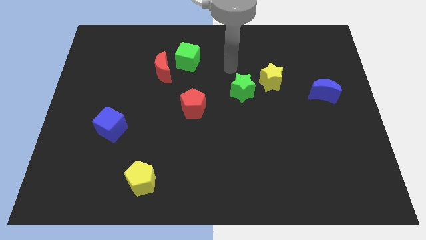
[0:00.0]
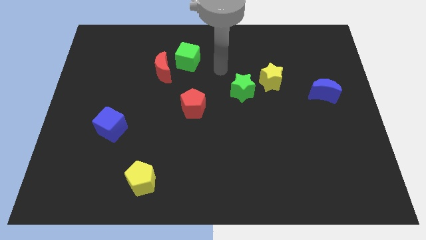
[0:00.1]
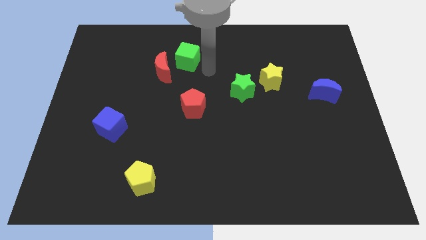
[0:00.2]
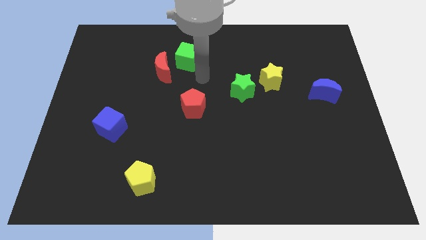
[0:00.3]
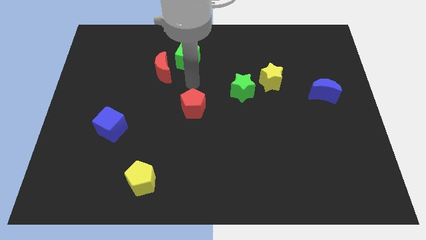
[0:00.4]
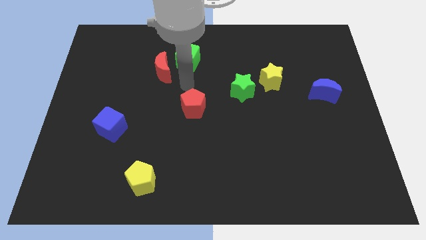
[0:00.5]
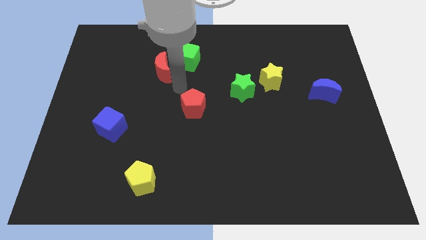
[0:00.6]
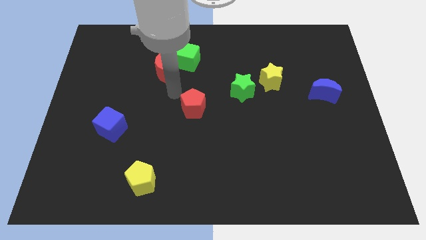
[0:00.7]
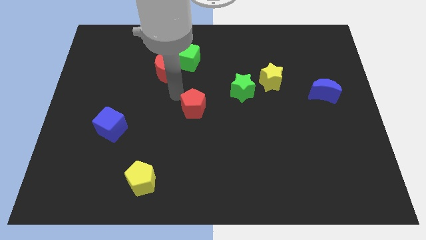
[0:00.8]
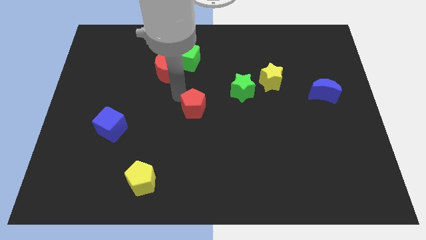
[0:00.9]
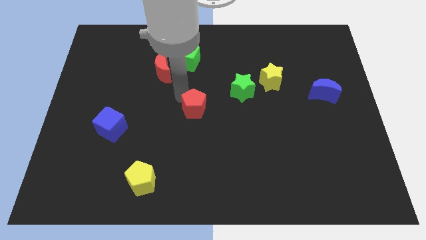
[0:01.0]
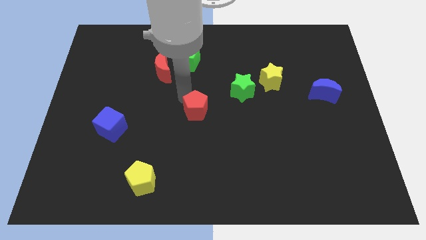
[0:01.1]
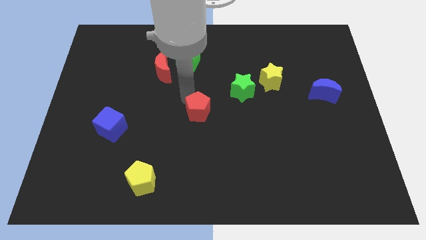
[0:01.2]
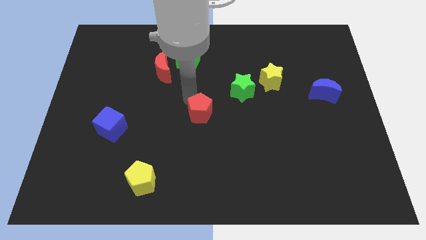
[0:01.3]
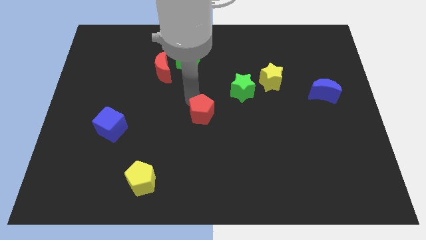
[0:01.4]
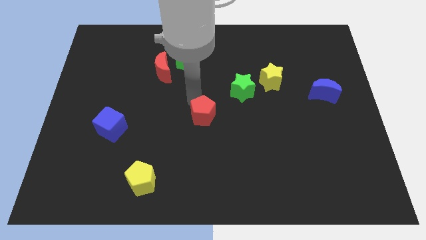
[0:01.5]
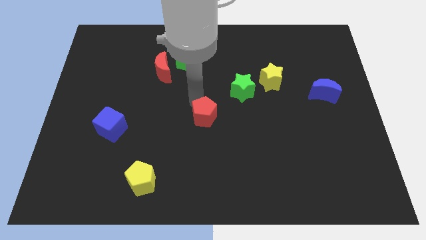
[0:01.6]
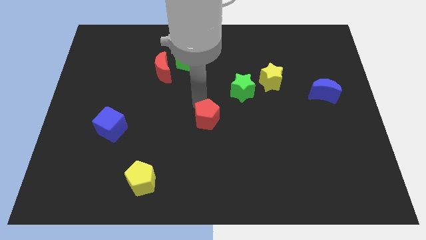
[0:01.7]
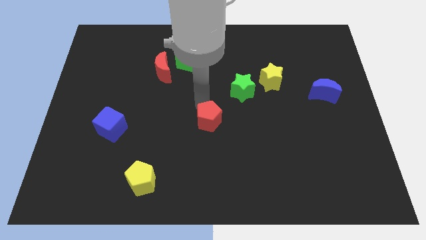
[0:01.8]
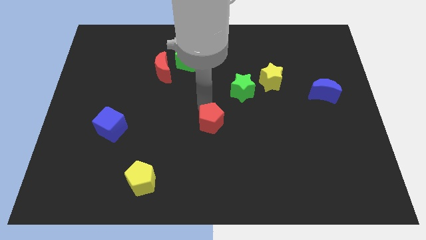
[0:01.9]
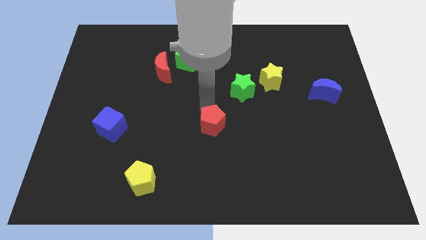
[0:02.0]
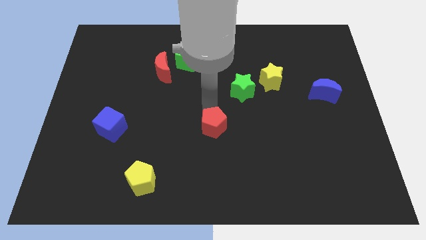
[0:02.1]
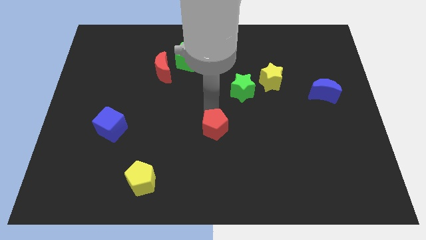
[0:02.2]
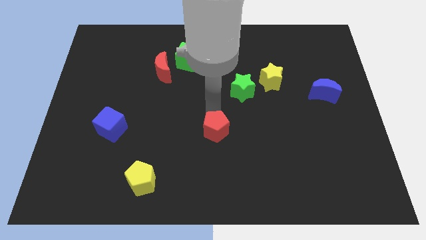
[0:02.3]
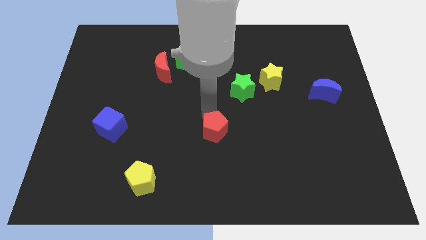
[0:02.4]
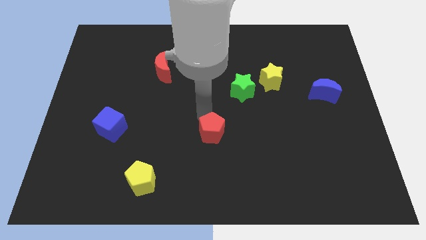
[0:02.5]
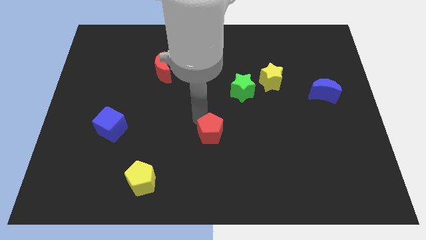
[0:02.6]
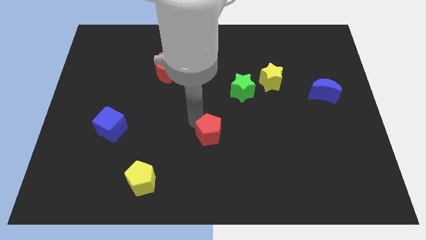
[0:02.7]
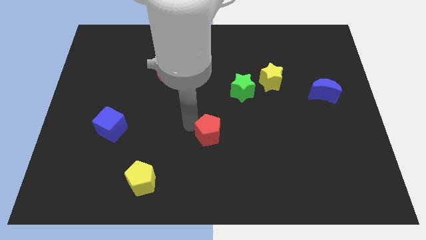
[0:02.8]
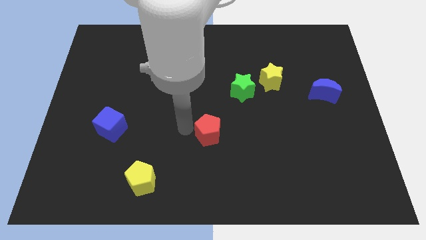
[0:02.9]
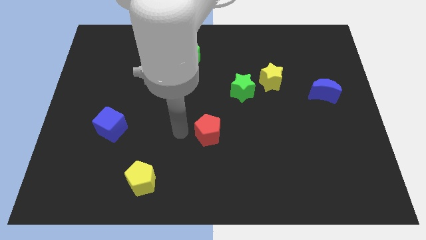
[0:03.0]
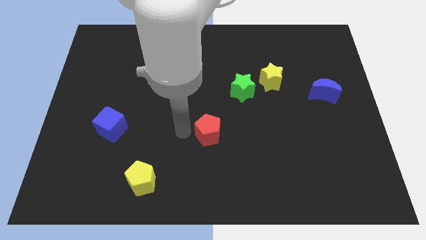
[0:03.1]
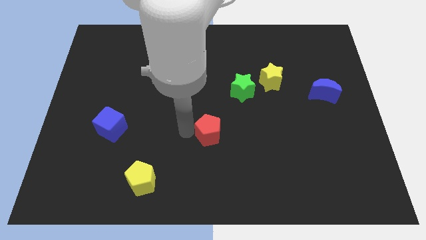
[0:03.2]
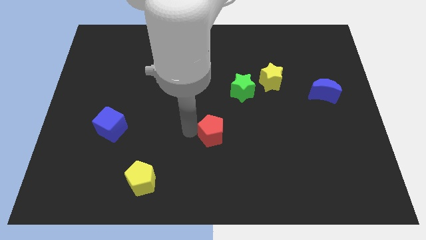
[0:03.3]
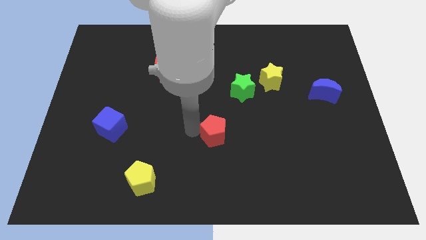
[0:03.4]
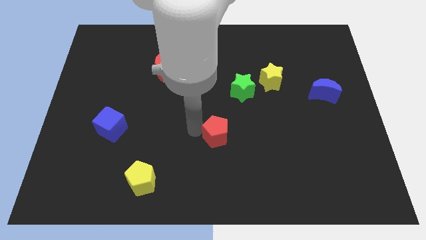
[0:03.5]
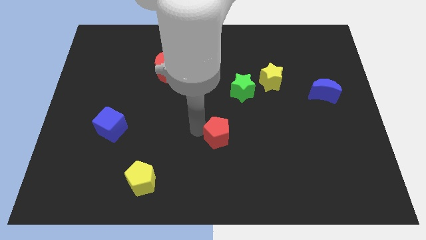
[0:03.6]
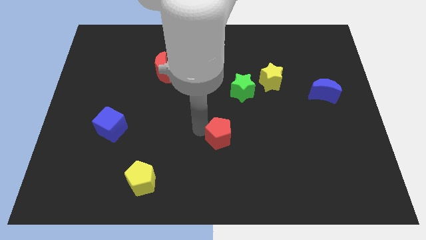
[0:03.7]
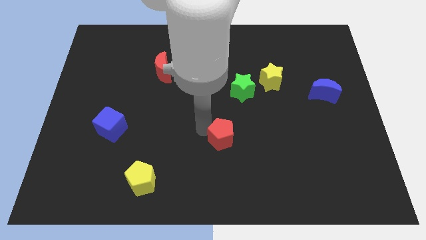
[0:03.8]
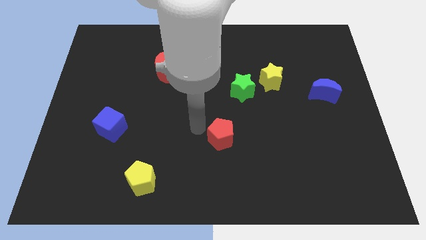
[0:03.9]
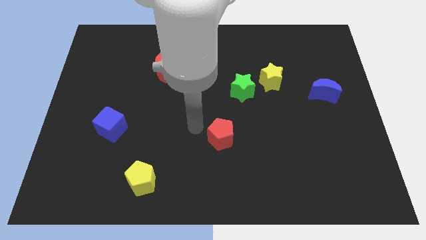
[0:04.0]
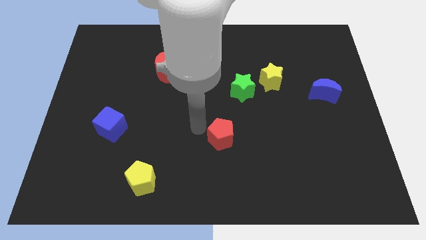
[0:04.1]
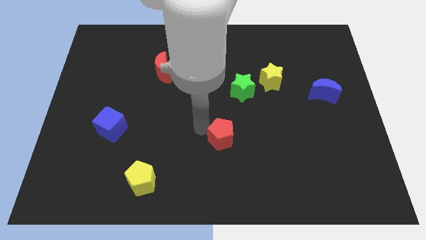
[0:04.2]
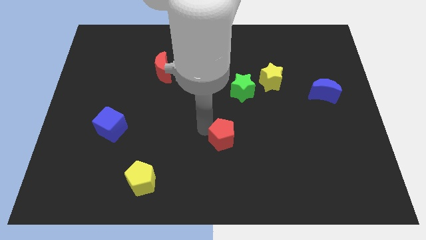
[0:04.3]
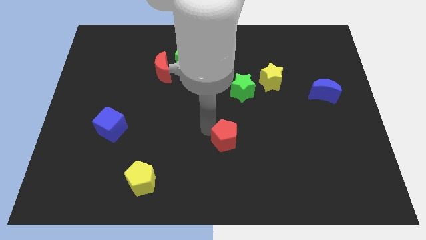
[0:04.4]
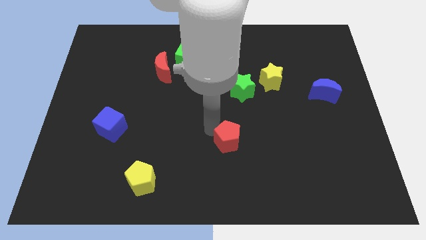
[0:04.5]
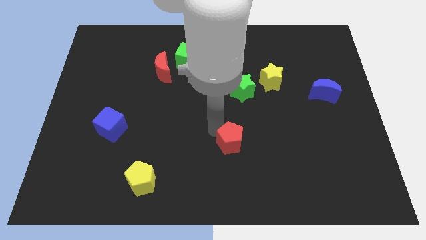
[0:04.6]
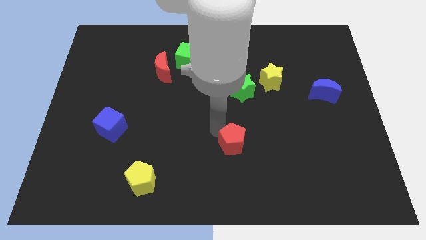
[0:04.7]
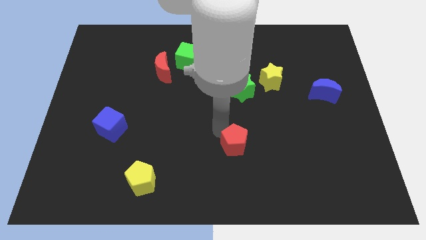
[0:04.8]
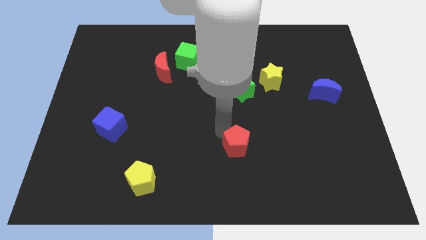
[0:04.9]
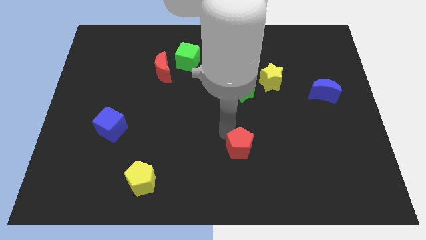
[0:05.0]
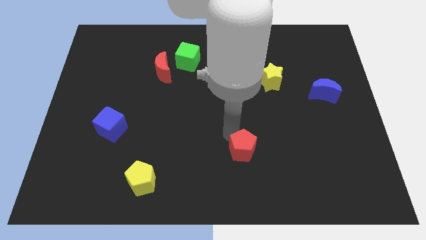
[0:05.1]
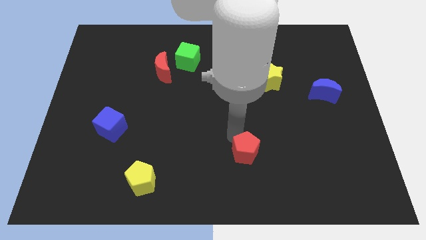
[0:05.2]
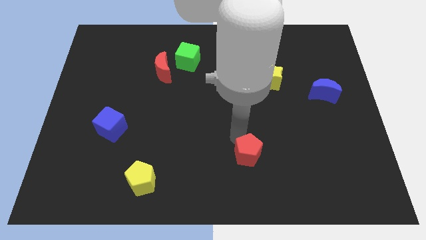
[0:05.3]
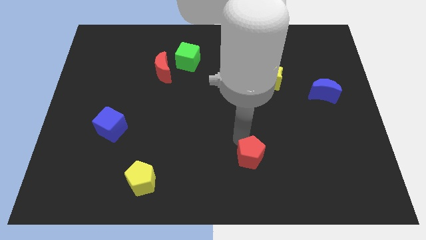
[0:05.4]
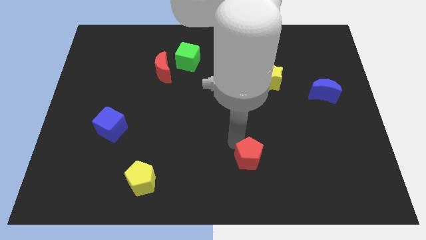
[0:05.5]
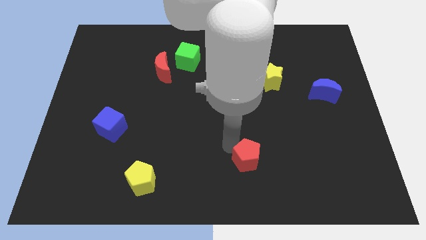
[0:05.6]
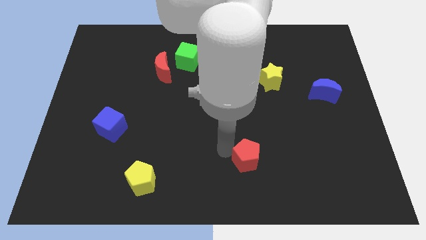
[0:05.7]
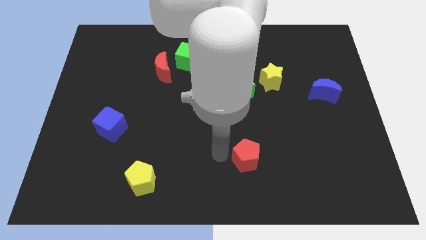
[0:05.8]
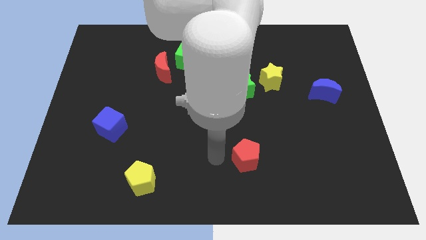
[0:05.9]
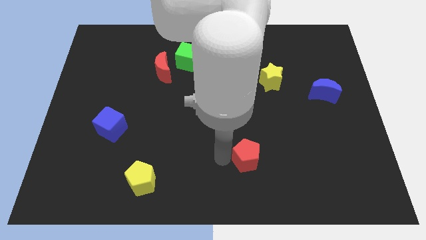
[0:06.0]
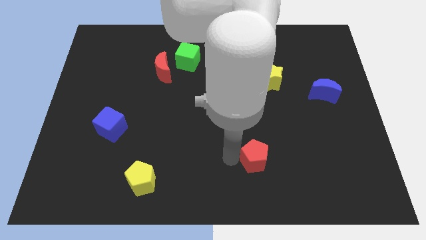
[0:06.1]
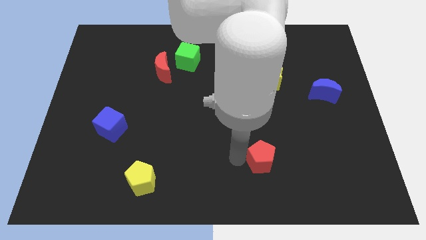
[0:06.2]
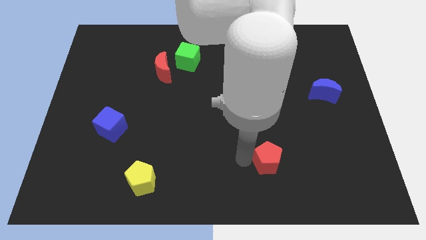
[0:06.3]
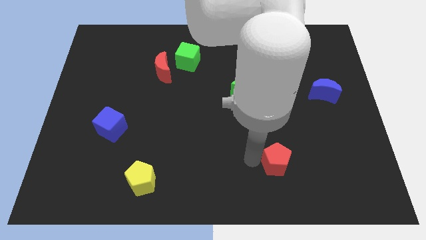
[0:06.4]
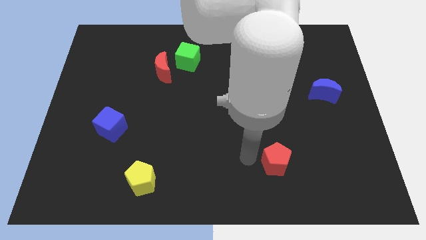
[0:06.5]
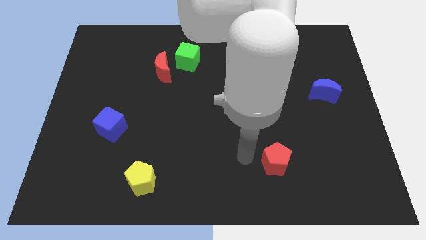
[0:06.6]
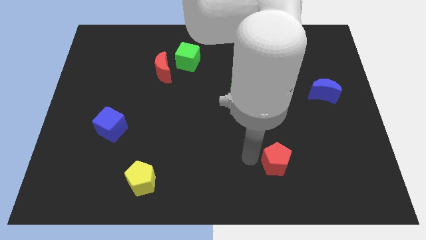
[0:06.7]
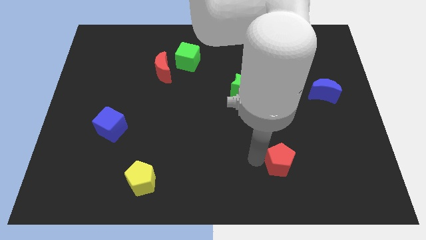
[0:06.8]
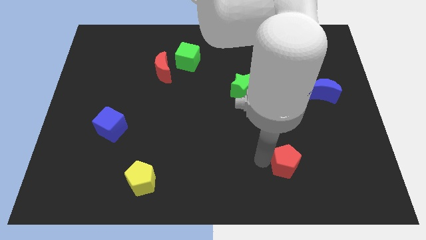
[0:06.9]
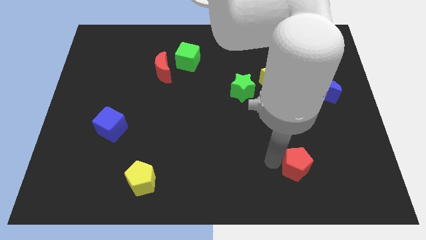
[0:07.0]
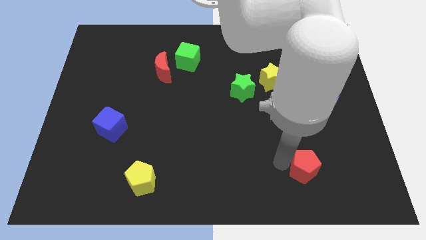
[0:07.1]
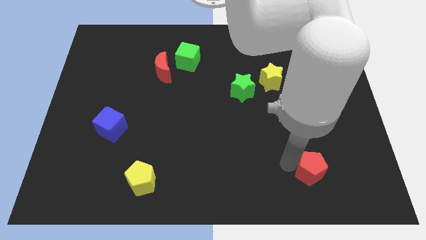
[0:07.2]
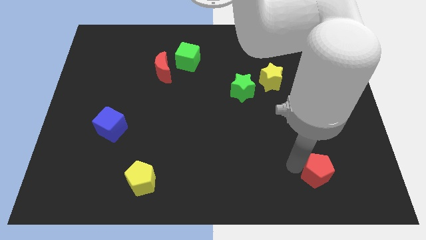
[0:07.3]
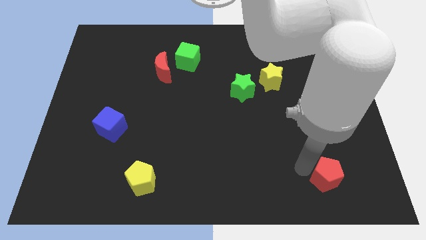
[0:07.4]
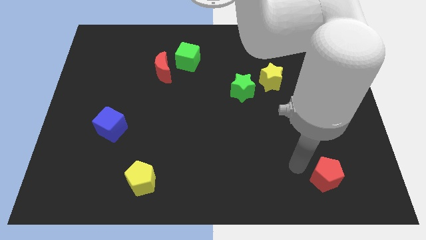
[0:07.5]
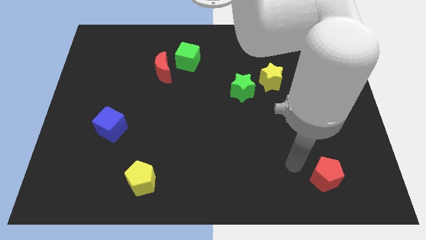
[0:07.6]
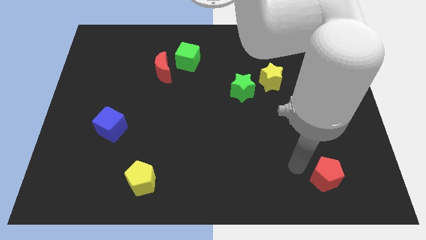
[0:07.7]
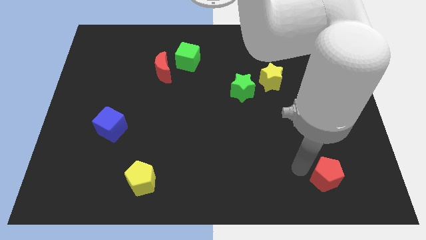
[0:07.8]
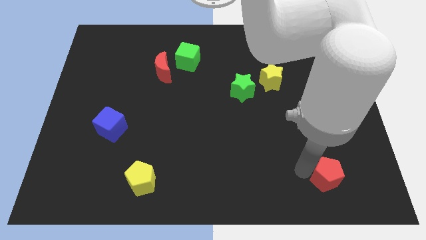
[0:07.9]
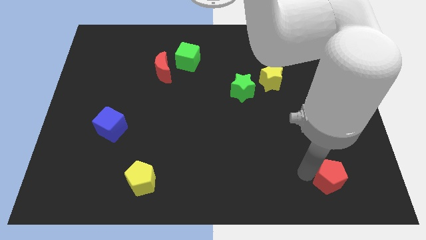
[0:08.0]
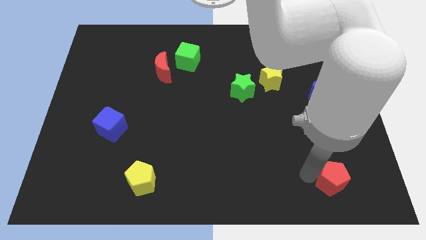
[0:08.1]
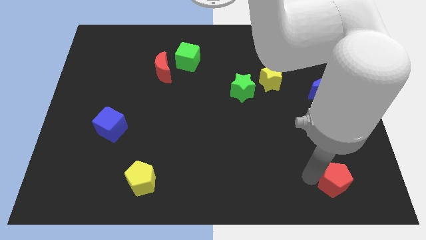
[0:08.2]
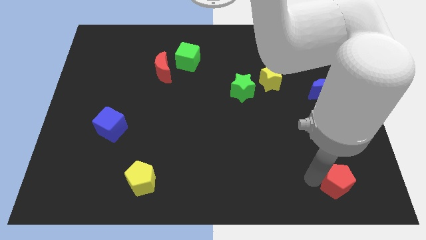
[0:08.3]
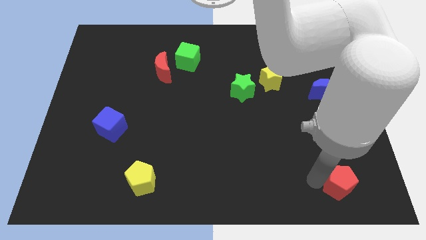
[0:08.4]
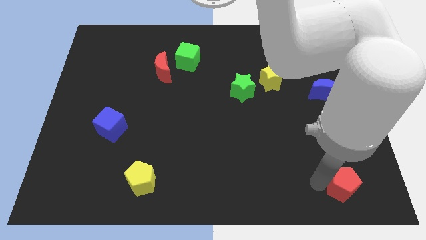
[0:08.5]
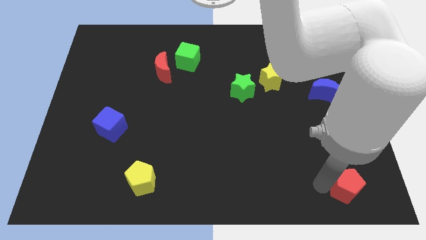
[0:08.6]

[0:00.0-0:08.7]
put the red pentagon to the bottom right
